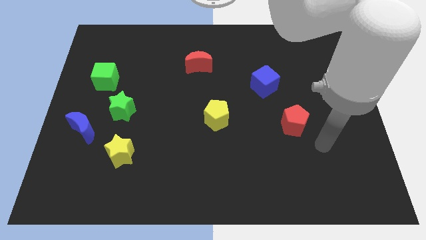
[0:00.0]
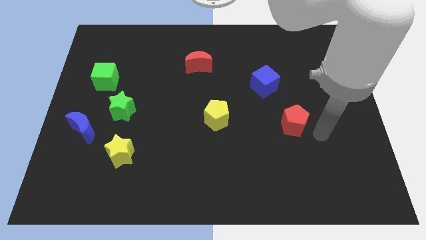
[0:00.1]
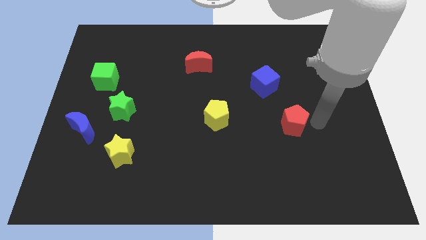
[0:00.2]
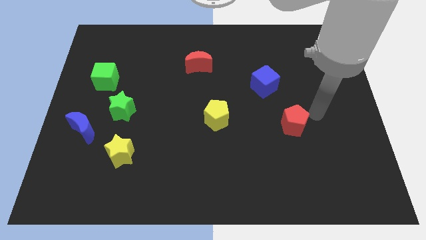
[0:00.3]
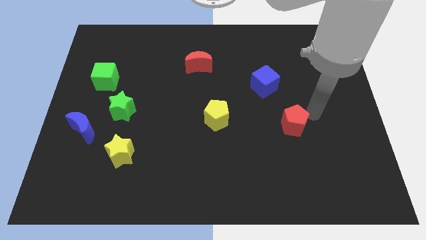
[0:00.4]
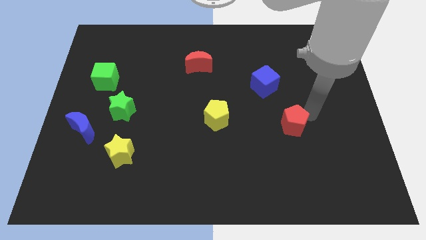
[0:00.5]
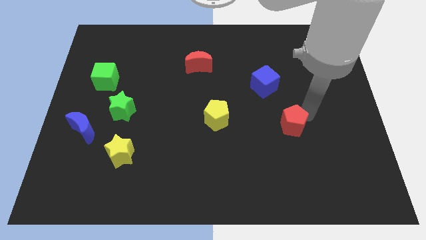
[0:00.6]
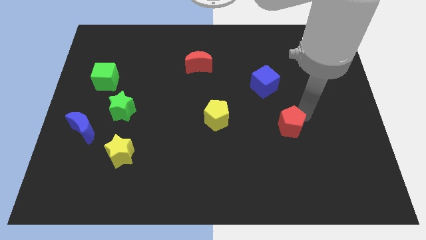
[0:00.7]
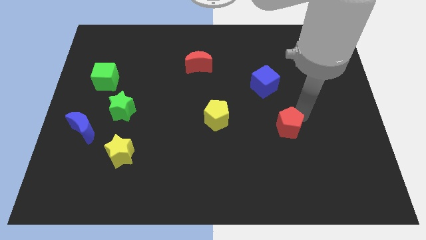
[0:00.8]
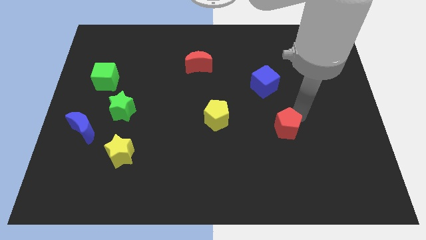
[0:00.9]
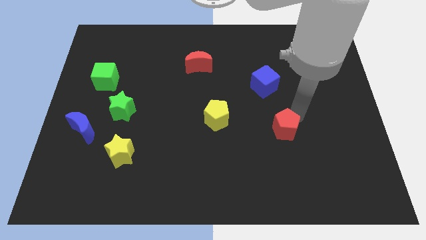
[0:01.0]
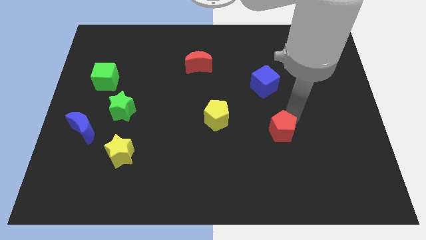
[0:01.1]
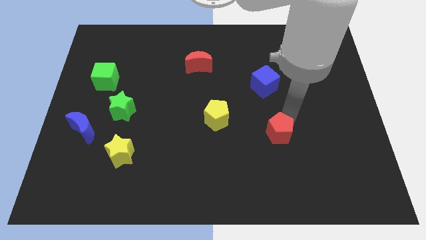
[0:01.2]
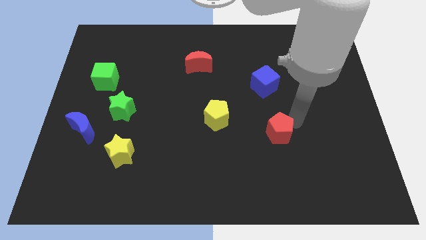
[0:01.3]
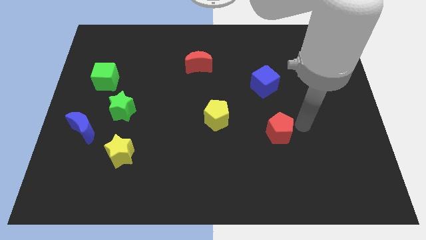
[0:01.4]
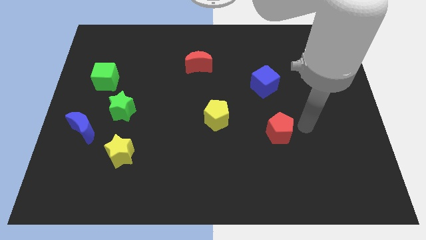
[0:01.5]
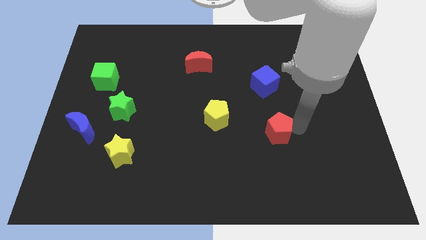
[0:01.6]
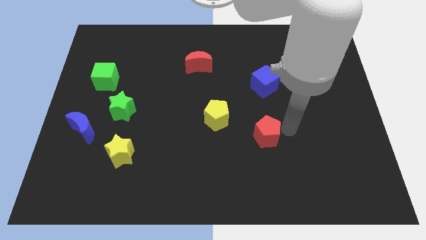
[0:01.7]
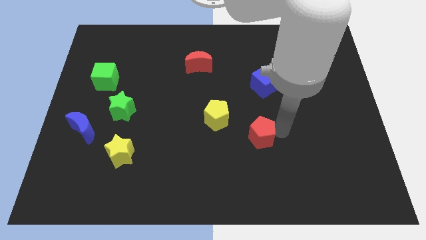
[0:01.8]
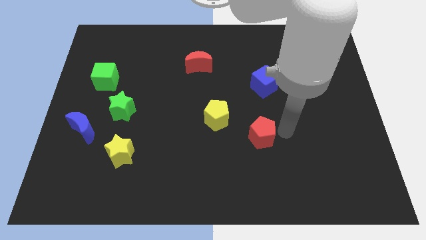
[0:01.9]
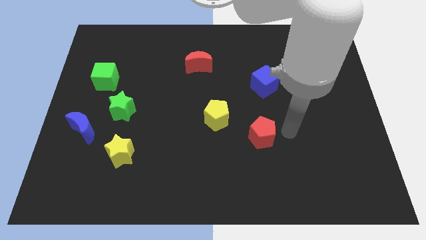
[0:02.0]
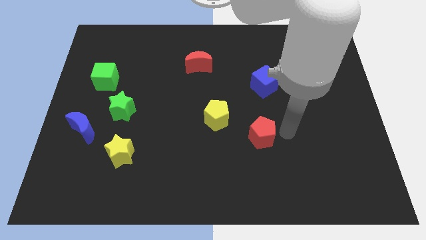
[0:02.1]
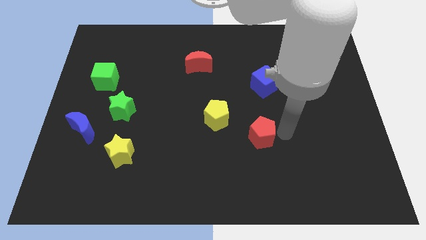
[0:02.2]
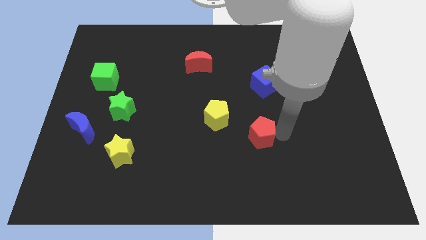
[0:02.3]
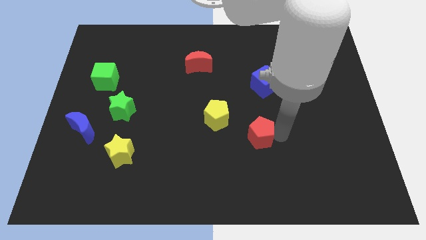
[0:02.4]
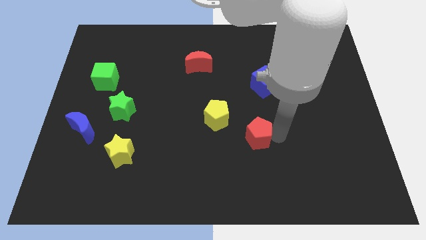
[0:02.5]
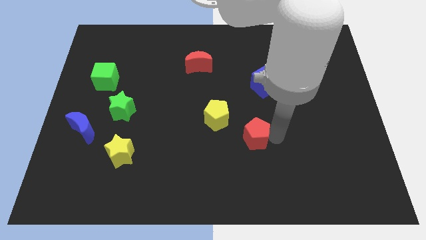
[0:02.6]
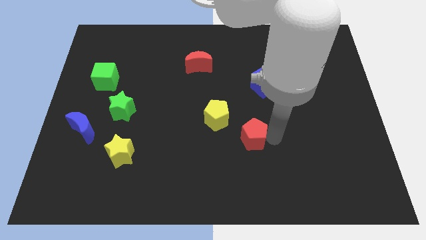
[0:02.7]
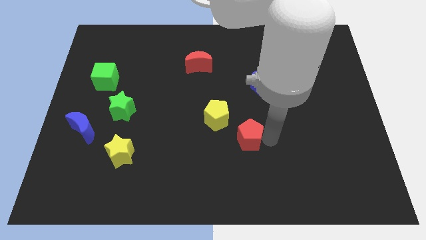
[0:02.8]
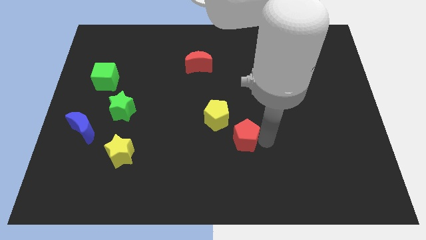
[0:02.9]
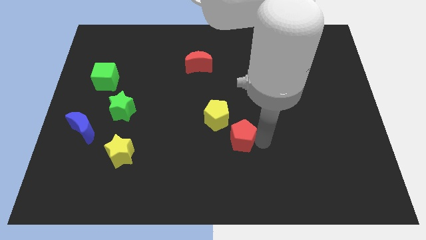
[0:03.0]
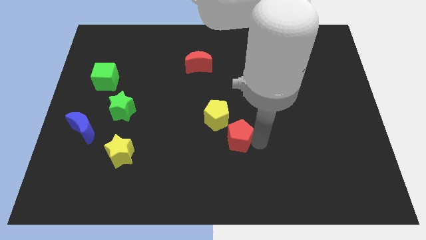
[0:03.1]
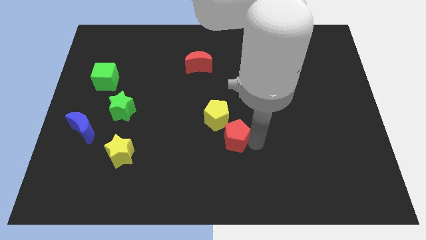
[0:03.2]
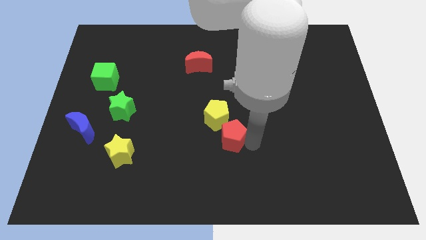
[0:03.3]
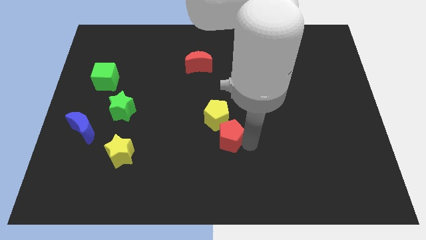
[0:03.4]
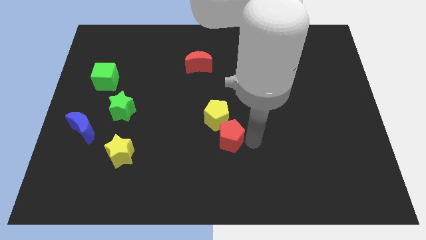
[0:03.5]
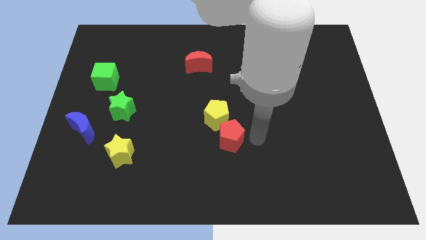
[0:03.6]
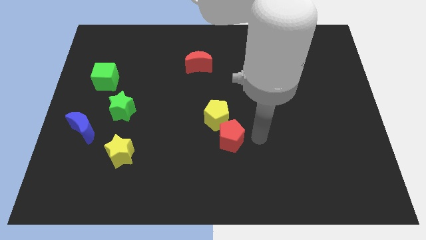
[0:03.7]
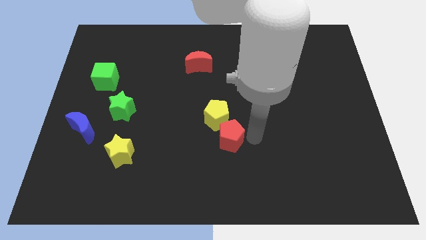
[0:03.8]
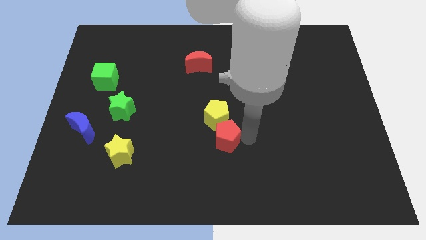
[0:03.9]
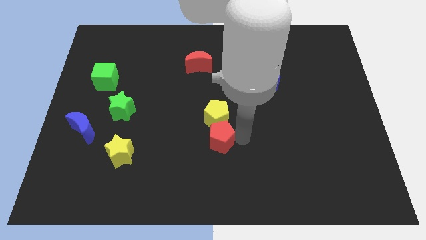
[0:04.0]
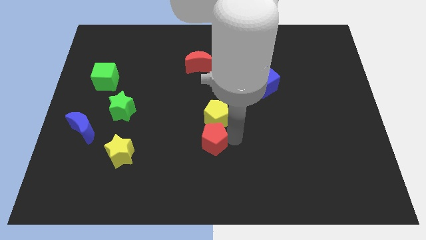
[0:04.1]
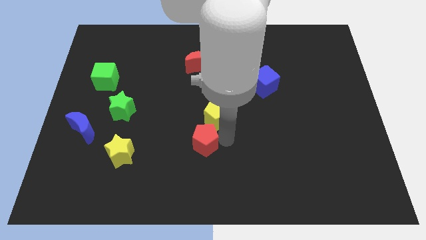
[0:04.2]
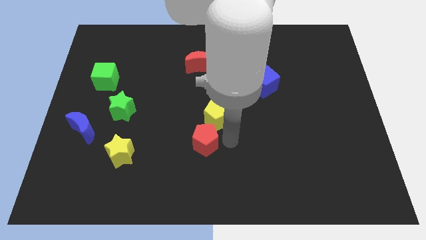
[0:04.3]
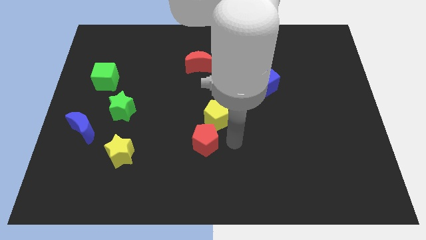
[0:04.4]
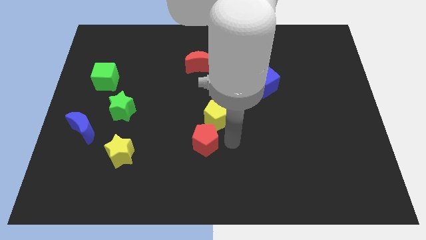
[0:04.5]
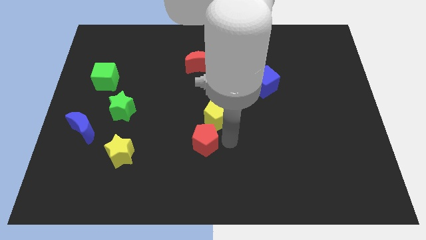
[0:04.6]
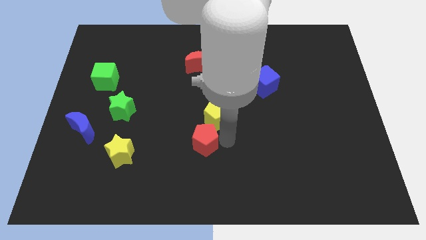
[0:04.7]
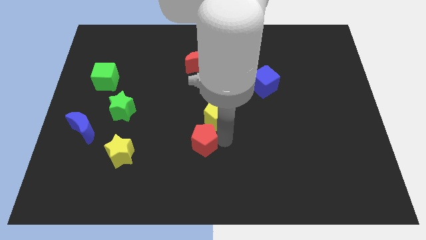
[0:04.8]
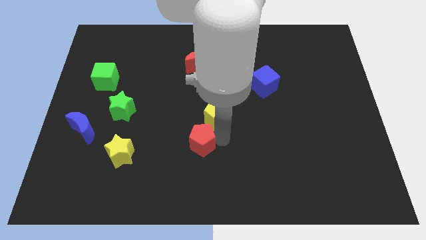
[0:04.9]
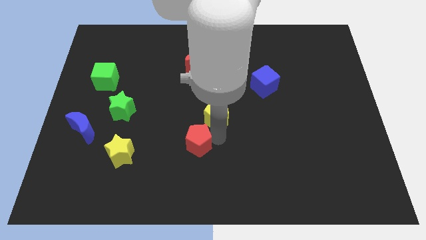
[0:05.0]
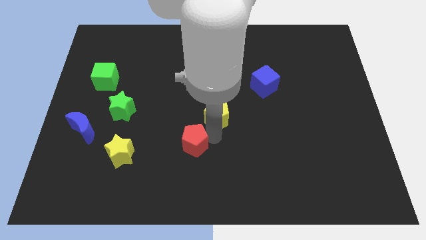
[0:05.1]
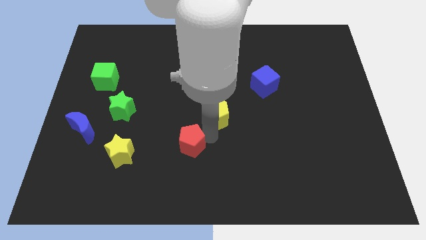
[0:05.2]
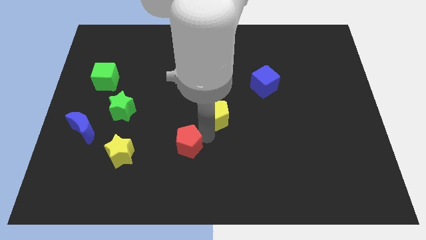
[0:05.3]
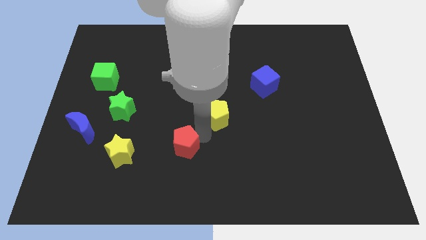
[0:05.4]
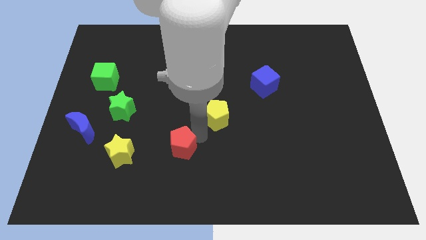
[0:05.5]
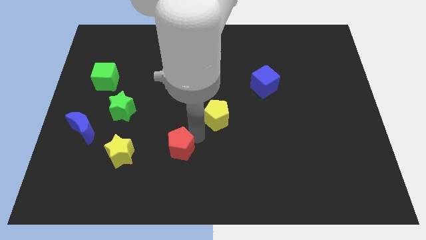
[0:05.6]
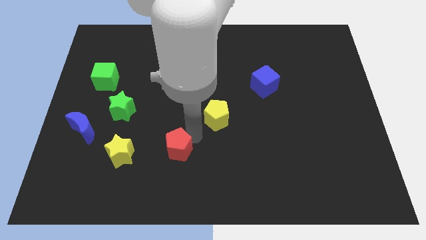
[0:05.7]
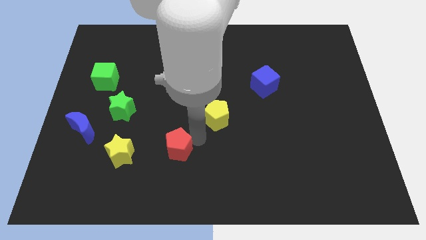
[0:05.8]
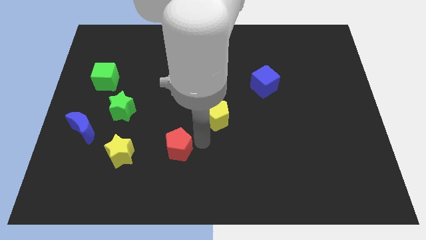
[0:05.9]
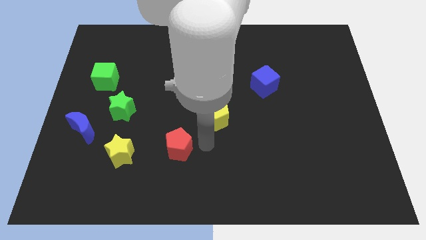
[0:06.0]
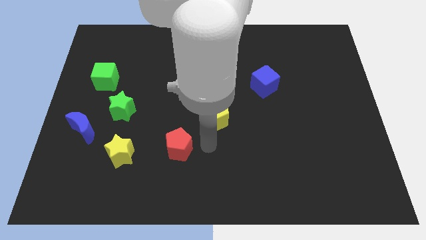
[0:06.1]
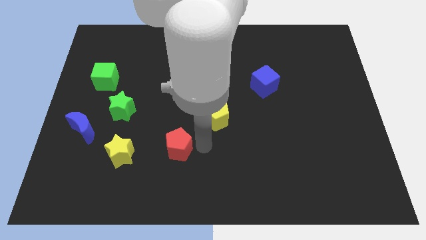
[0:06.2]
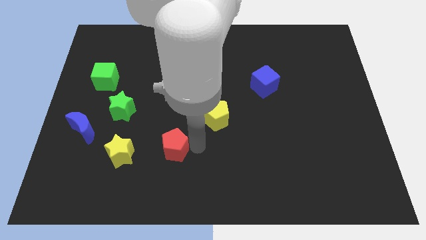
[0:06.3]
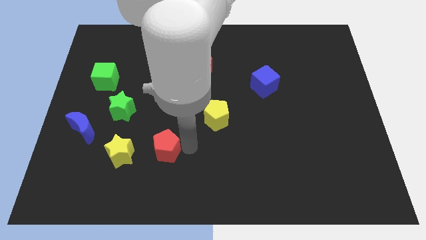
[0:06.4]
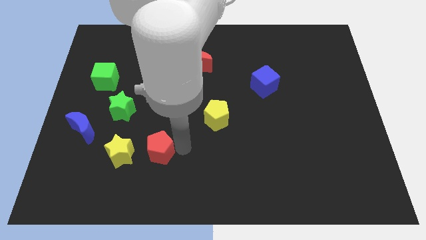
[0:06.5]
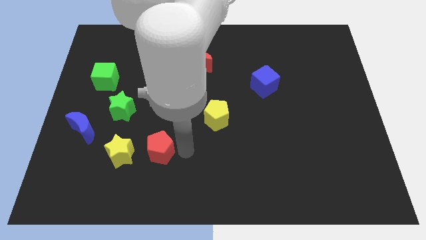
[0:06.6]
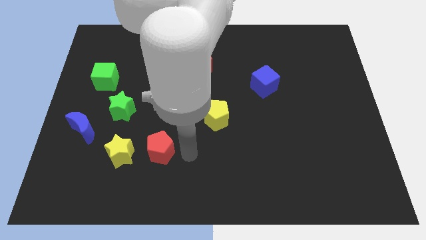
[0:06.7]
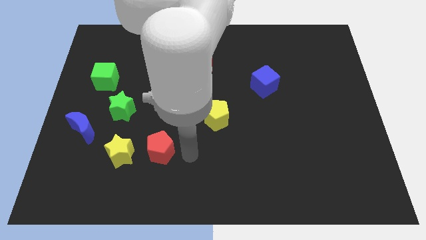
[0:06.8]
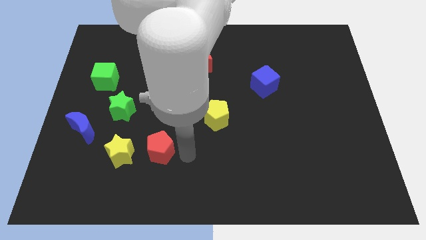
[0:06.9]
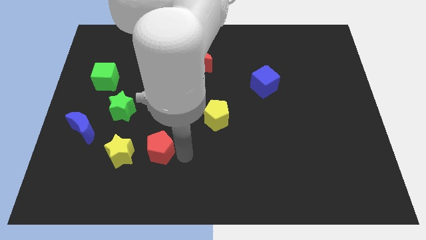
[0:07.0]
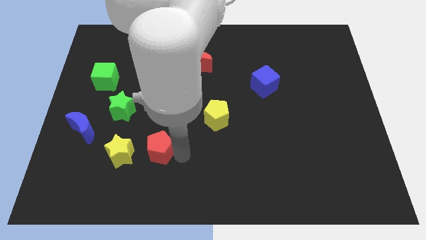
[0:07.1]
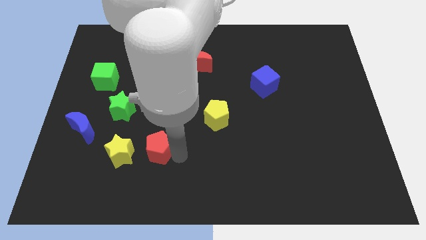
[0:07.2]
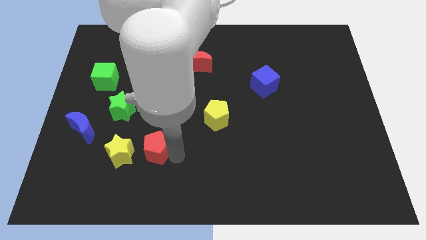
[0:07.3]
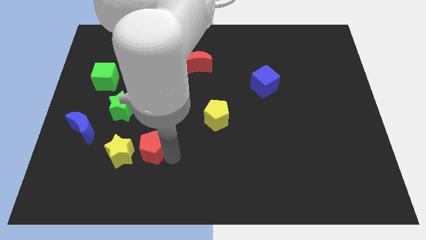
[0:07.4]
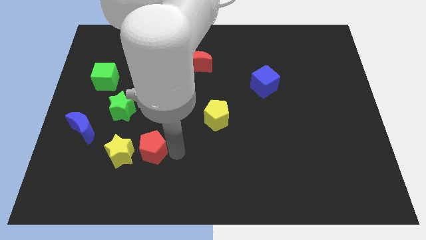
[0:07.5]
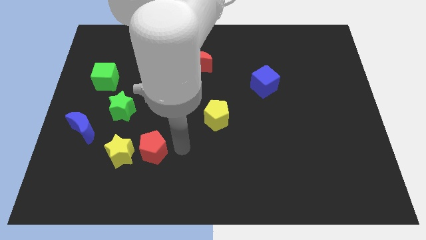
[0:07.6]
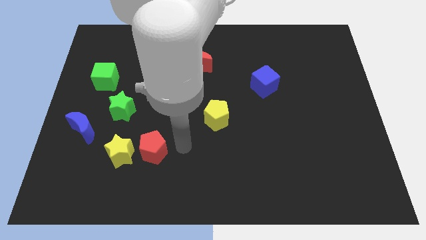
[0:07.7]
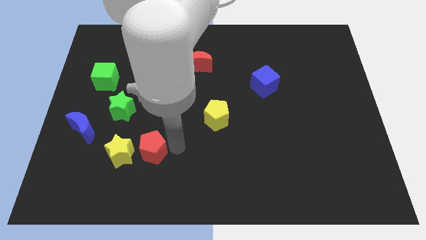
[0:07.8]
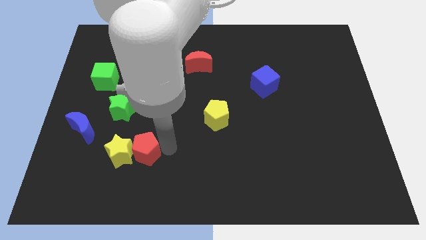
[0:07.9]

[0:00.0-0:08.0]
push the red pentagon close to the yellow star
